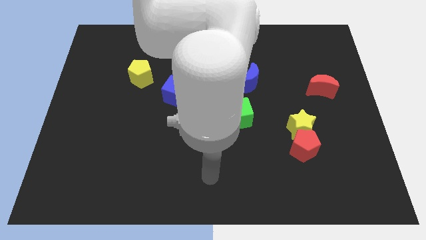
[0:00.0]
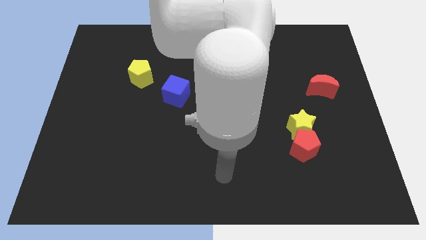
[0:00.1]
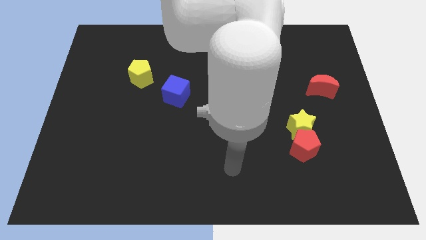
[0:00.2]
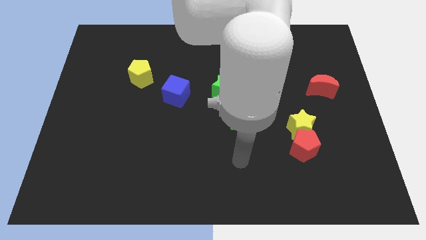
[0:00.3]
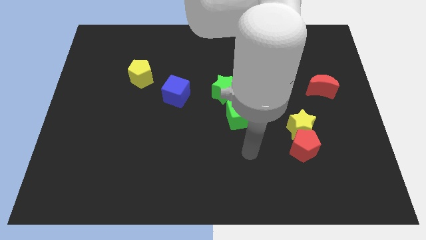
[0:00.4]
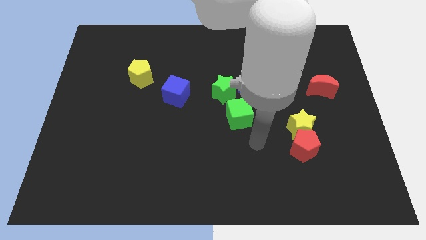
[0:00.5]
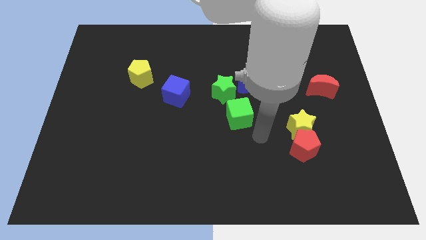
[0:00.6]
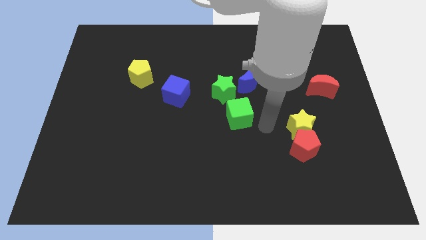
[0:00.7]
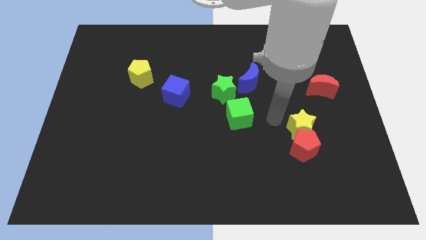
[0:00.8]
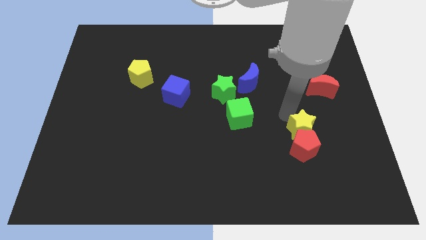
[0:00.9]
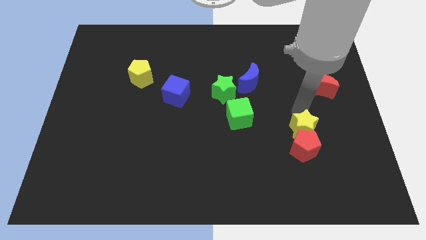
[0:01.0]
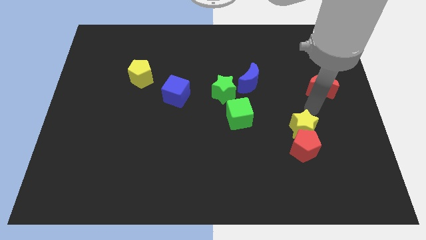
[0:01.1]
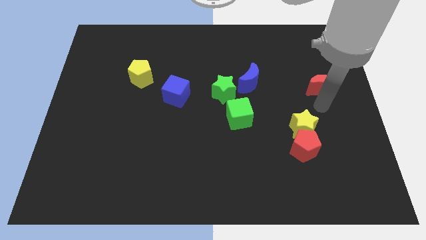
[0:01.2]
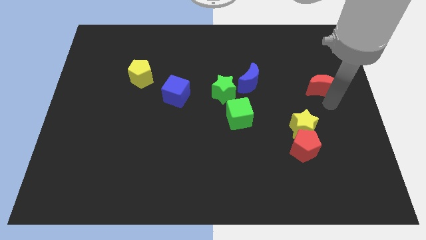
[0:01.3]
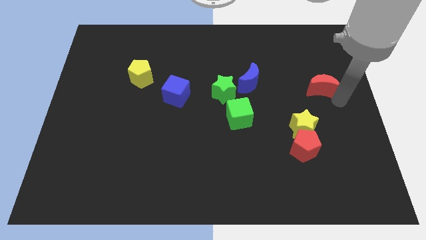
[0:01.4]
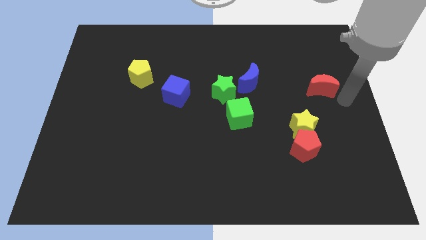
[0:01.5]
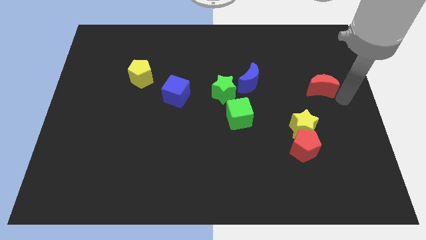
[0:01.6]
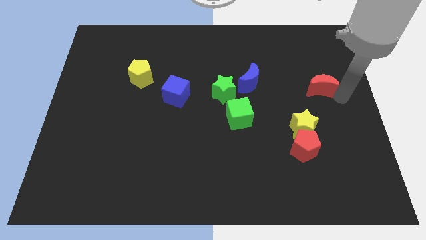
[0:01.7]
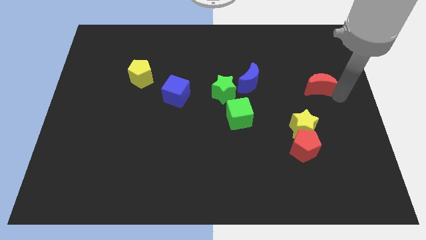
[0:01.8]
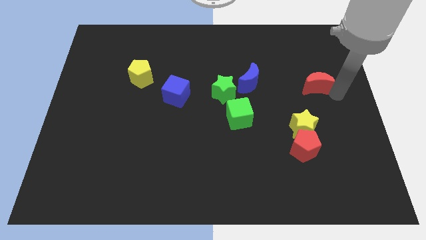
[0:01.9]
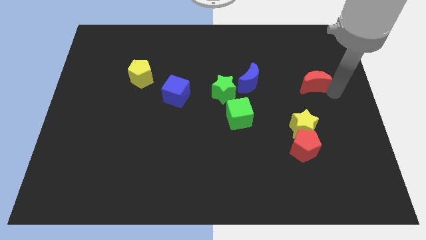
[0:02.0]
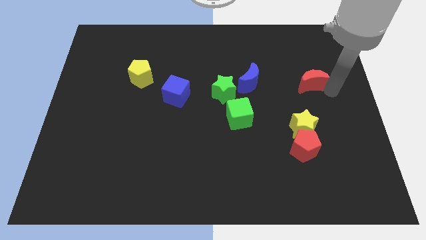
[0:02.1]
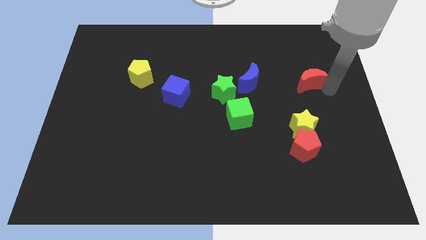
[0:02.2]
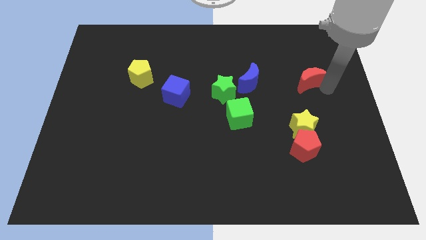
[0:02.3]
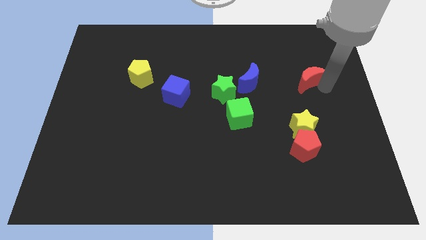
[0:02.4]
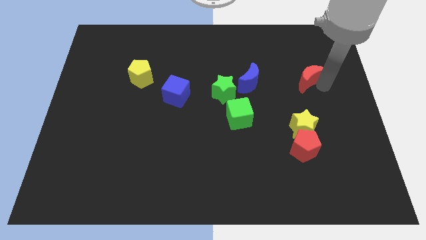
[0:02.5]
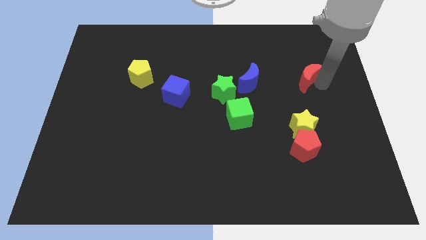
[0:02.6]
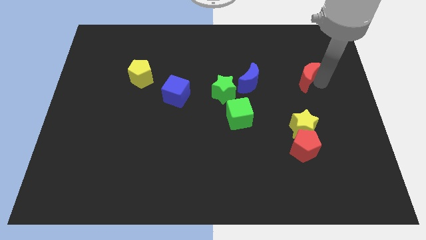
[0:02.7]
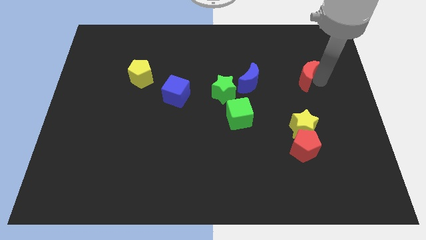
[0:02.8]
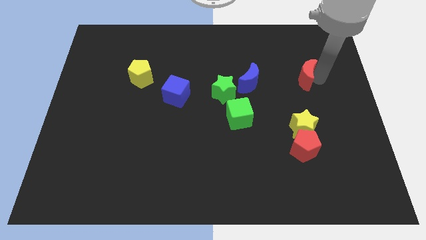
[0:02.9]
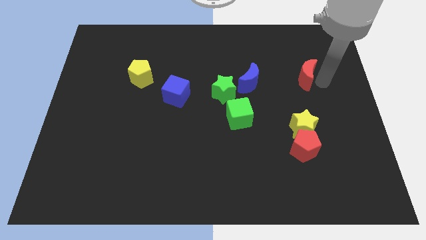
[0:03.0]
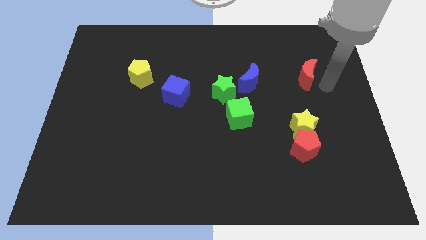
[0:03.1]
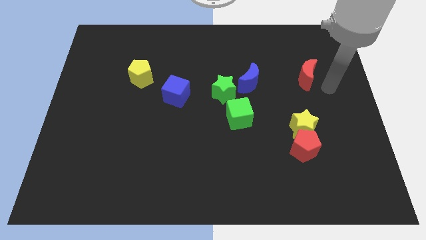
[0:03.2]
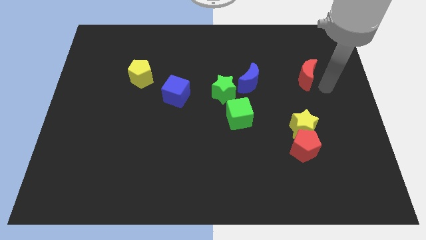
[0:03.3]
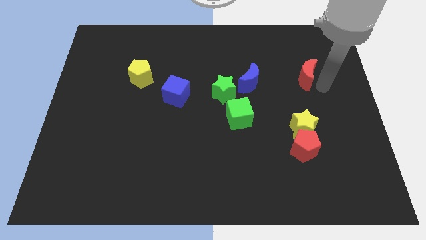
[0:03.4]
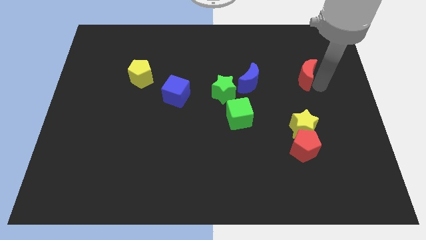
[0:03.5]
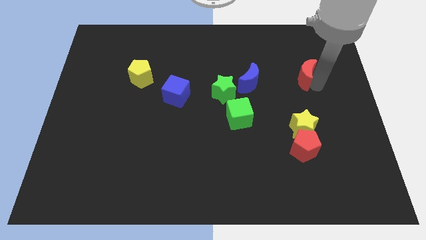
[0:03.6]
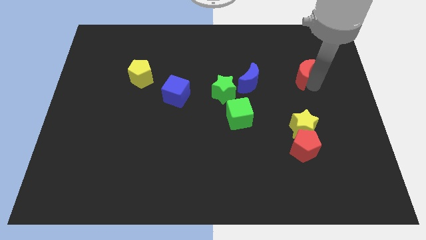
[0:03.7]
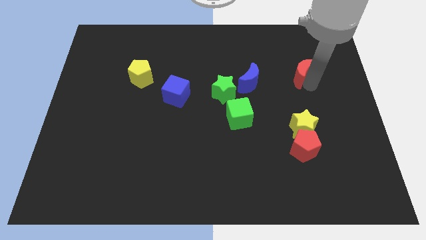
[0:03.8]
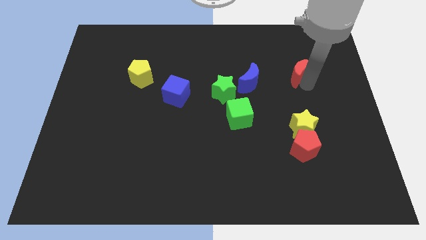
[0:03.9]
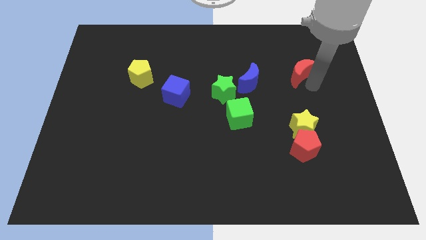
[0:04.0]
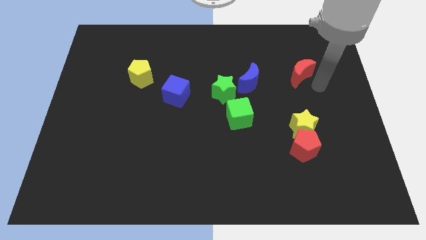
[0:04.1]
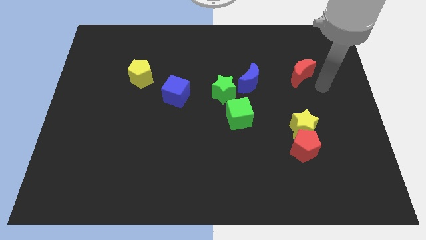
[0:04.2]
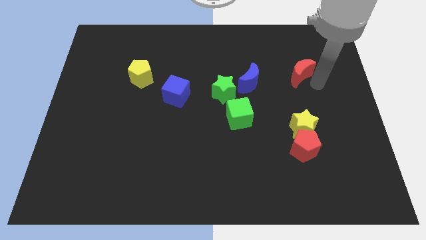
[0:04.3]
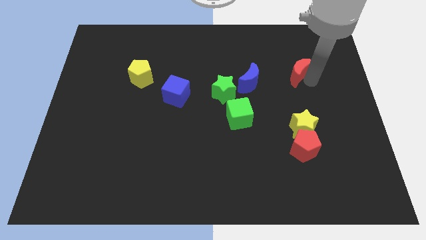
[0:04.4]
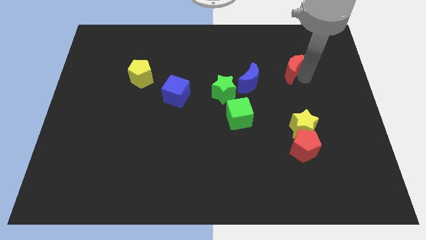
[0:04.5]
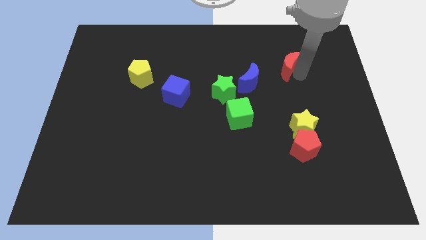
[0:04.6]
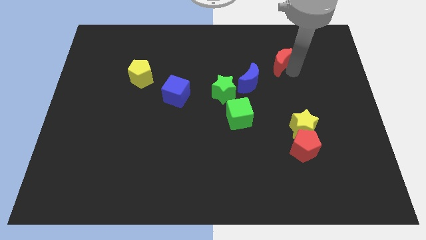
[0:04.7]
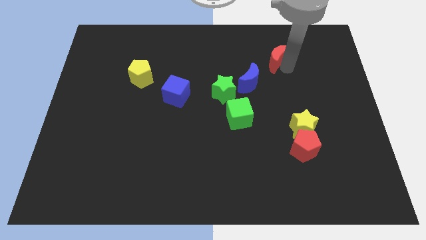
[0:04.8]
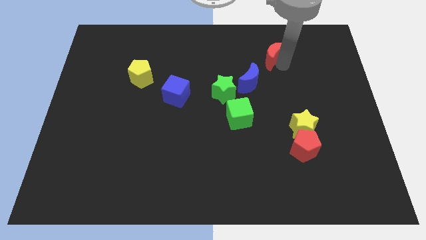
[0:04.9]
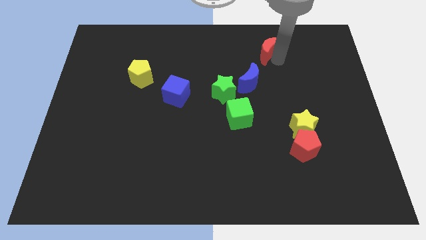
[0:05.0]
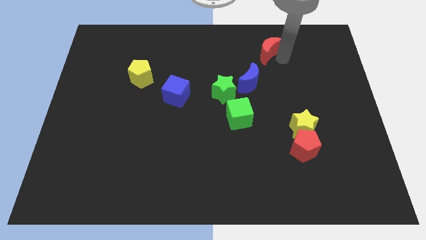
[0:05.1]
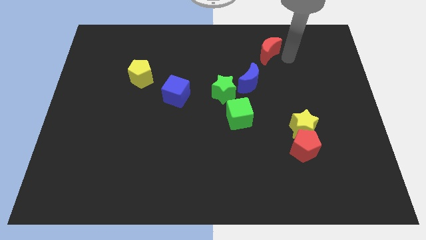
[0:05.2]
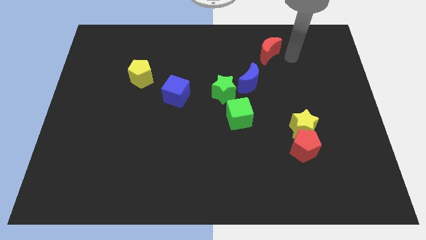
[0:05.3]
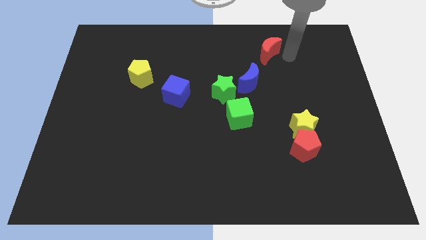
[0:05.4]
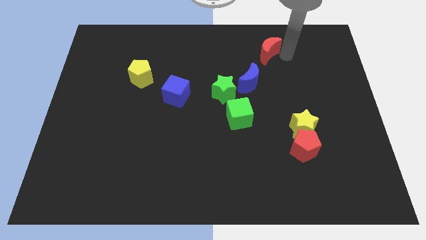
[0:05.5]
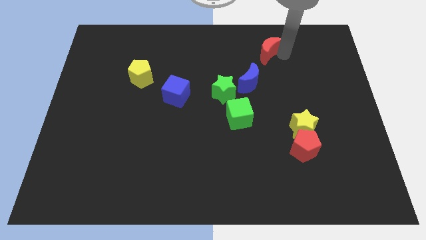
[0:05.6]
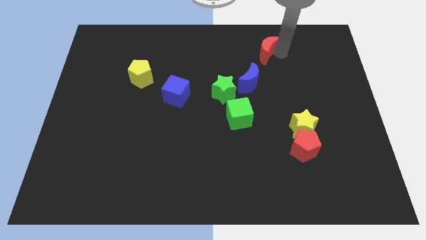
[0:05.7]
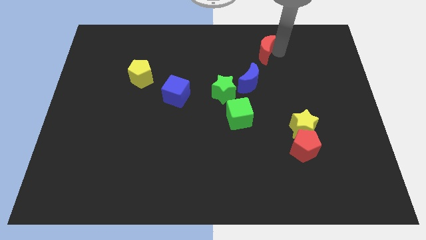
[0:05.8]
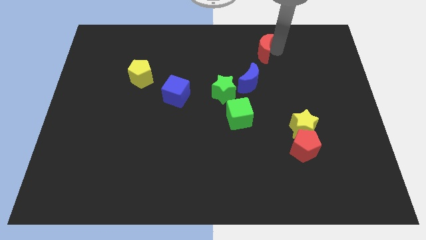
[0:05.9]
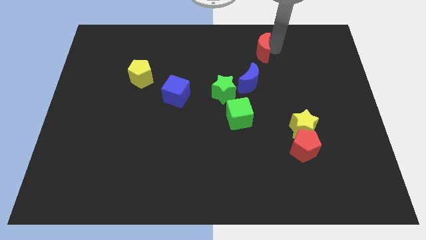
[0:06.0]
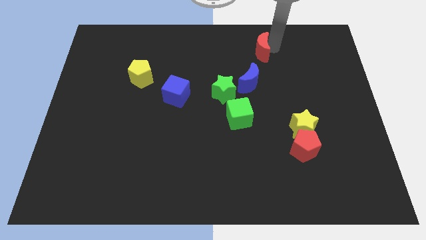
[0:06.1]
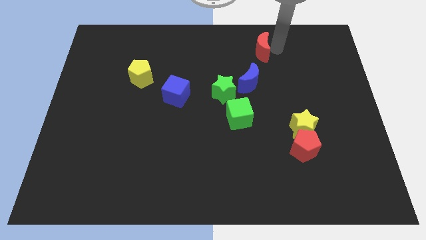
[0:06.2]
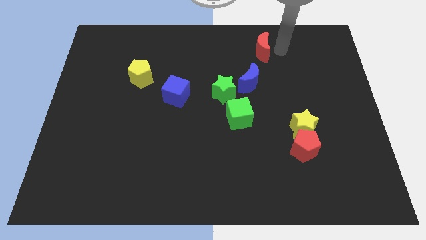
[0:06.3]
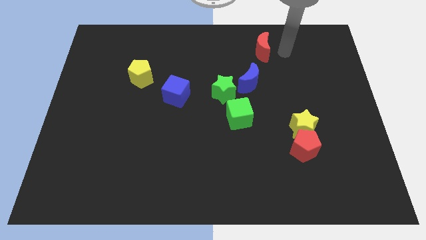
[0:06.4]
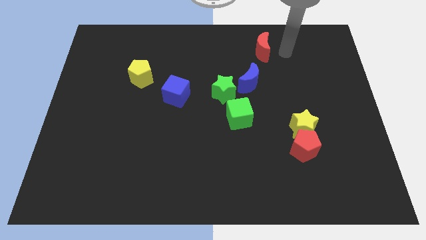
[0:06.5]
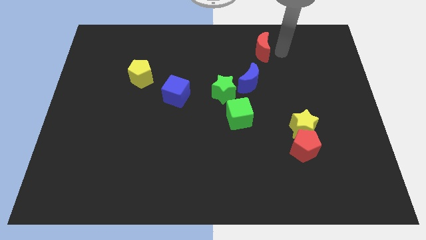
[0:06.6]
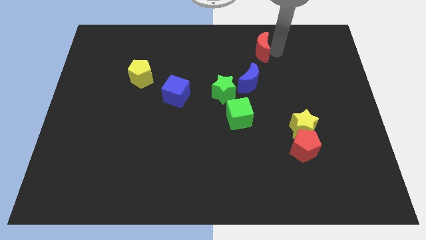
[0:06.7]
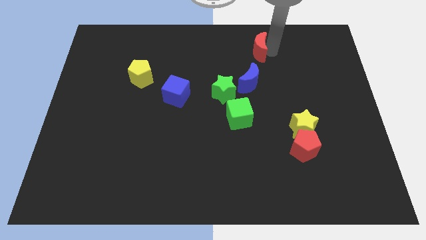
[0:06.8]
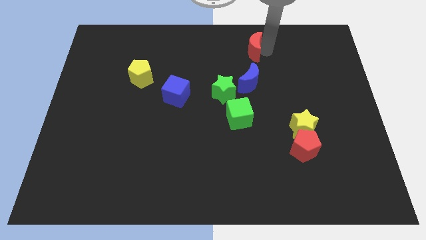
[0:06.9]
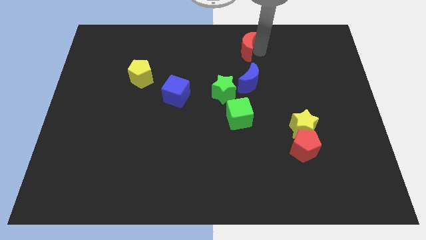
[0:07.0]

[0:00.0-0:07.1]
move the red moon to the towards your base
